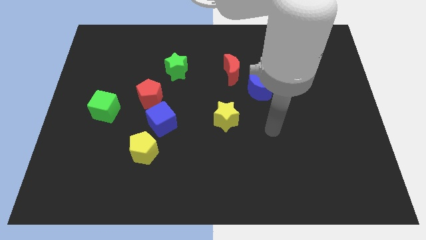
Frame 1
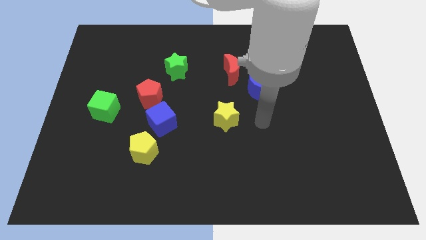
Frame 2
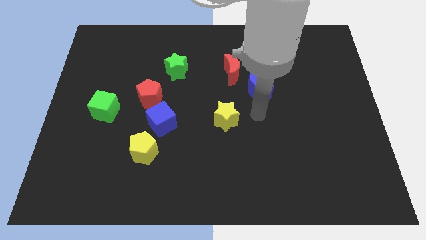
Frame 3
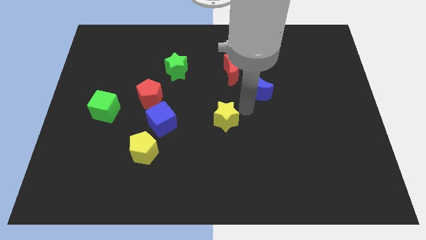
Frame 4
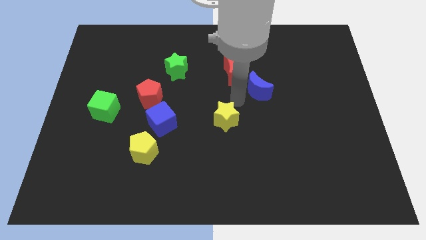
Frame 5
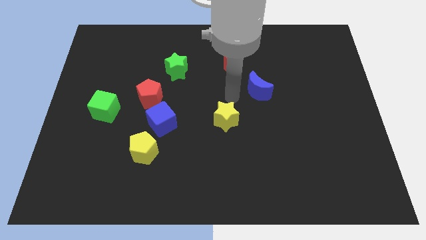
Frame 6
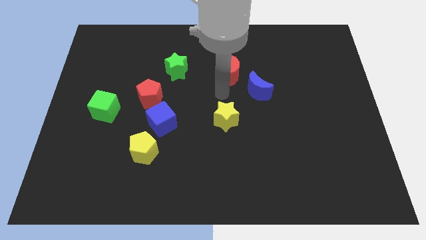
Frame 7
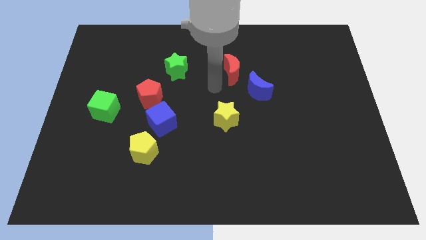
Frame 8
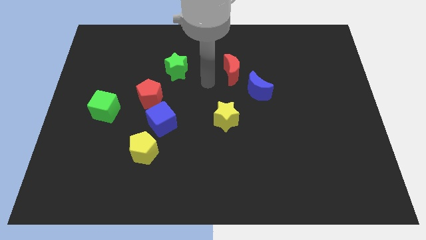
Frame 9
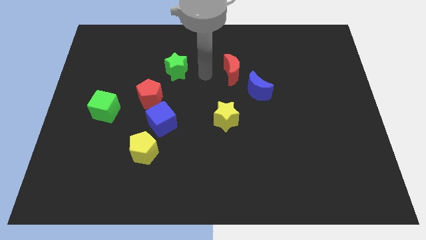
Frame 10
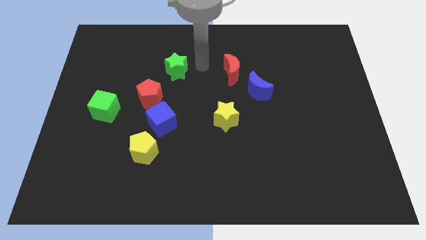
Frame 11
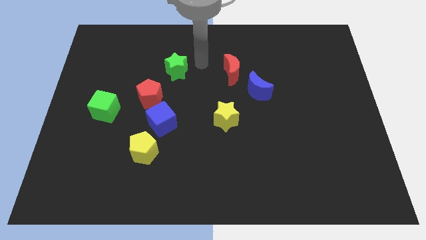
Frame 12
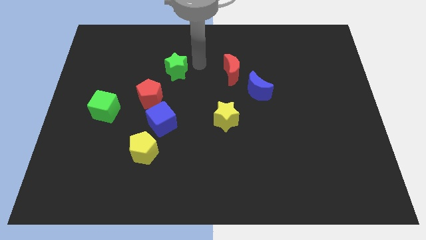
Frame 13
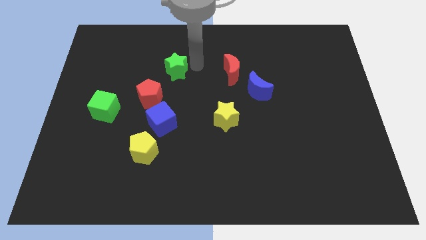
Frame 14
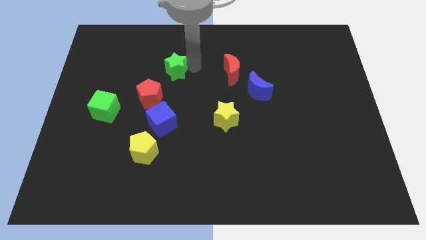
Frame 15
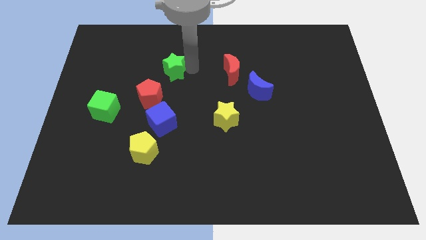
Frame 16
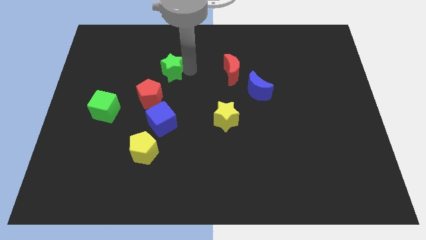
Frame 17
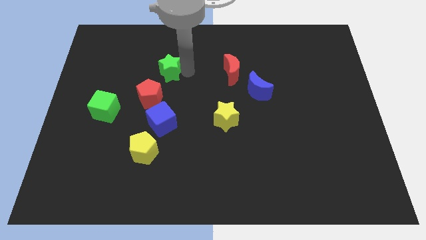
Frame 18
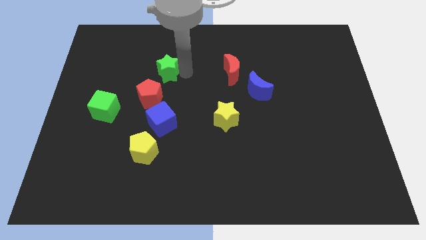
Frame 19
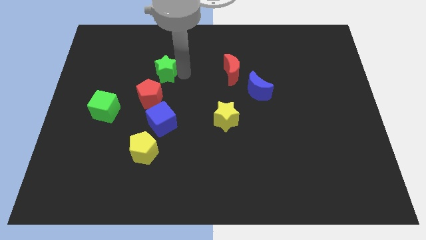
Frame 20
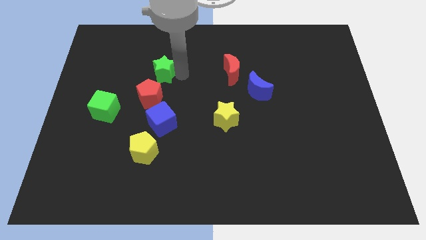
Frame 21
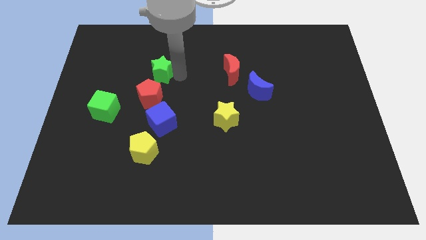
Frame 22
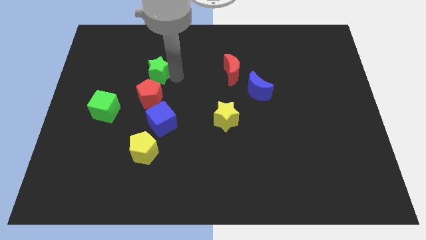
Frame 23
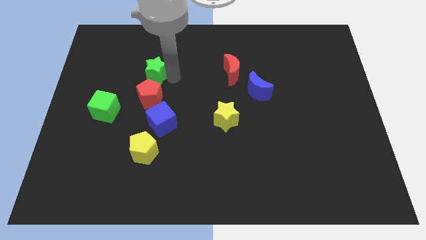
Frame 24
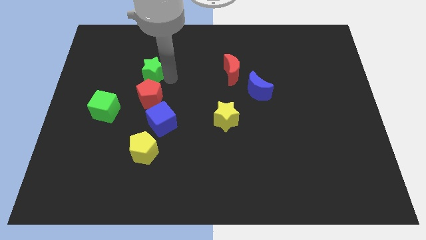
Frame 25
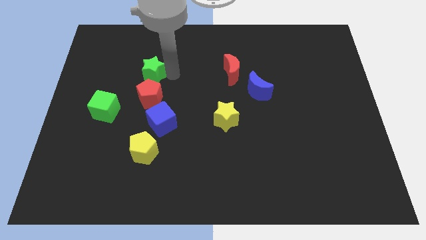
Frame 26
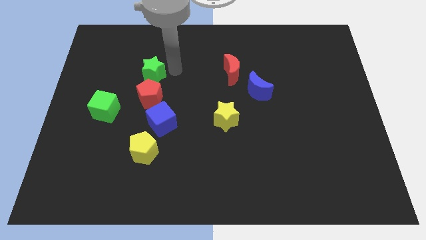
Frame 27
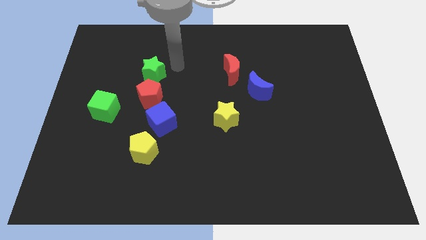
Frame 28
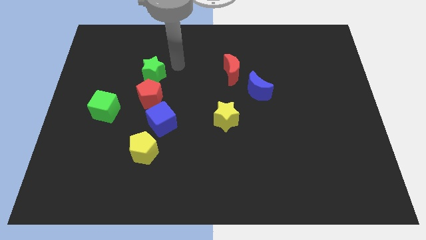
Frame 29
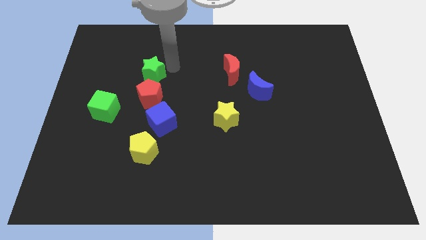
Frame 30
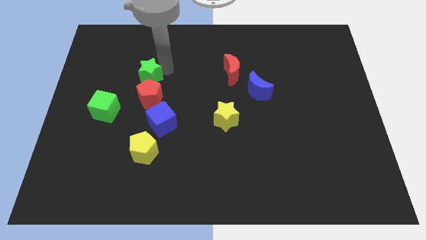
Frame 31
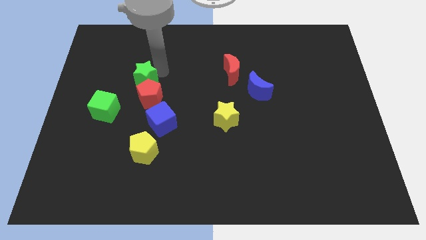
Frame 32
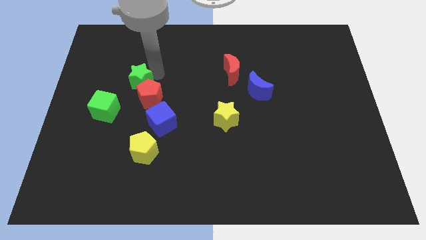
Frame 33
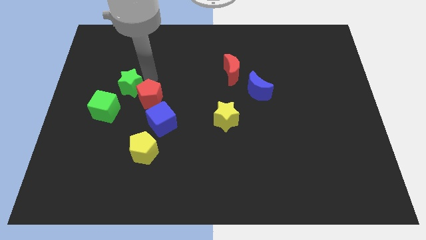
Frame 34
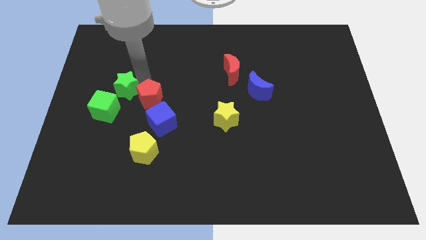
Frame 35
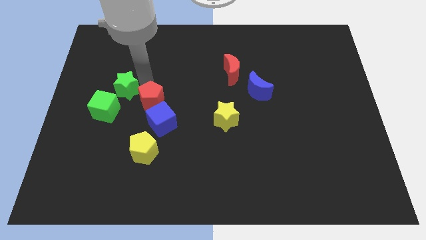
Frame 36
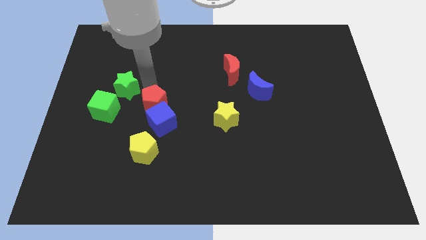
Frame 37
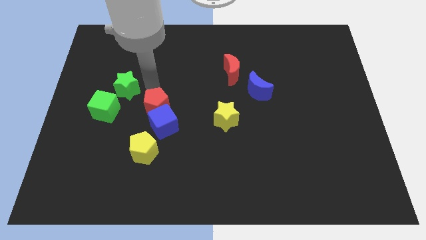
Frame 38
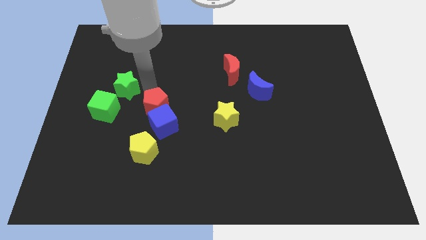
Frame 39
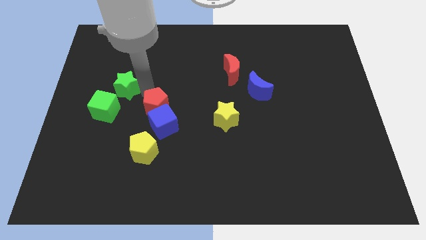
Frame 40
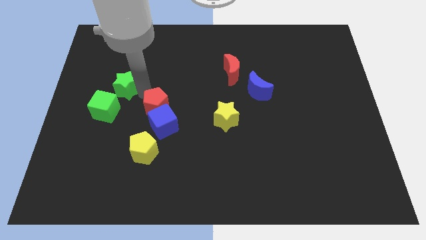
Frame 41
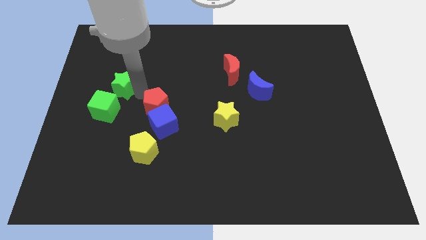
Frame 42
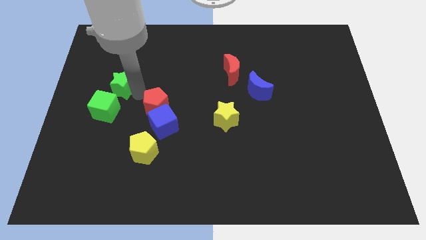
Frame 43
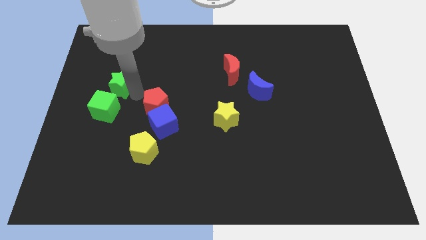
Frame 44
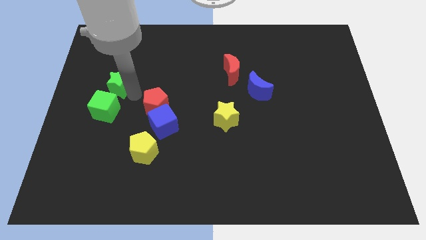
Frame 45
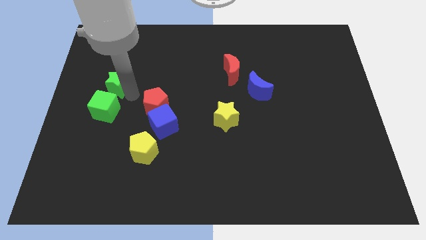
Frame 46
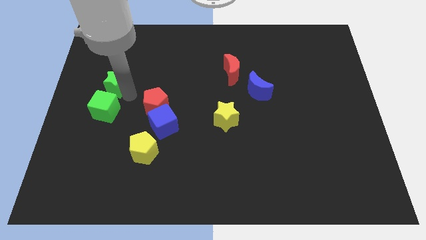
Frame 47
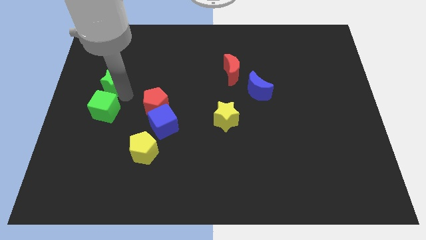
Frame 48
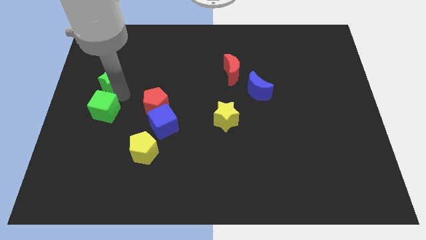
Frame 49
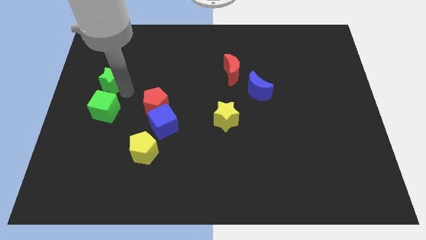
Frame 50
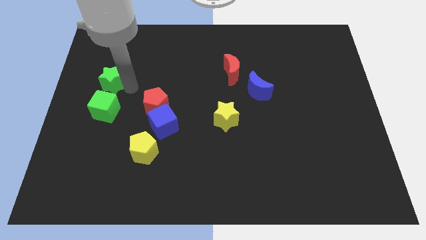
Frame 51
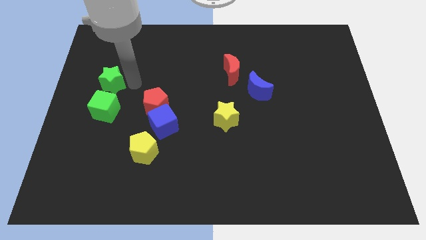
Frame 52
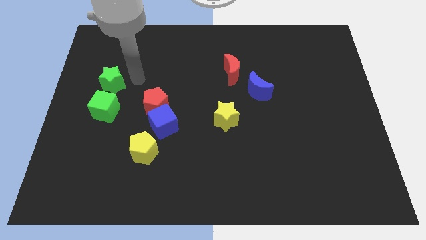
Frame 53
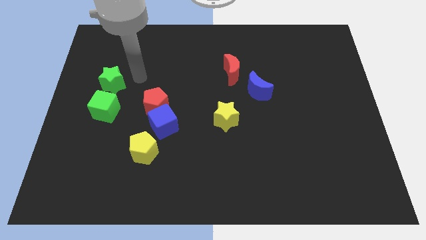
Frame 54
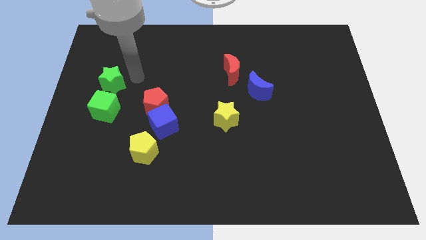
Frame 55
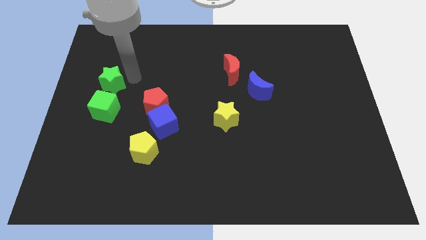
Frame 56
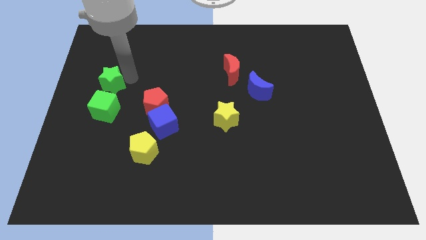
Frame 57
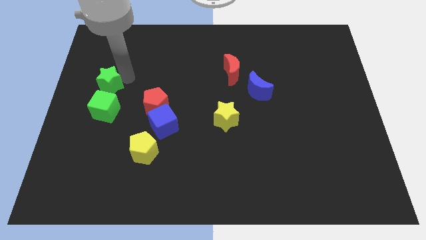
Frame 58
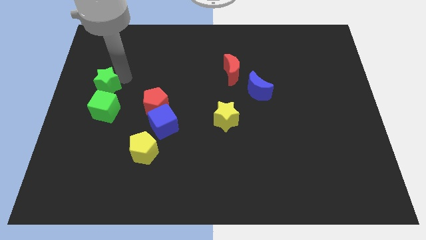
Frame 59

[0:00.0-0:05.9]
push the green star to the center left
